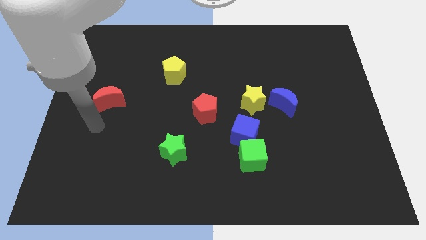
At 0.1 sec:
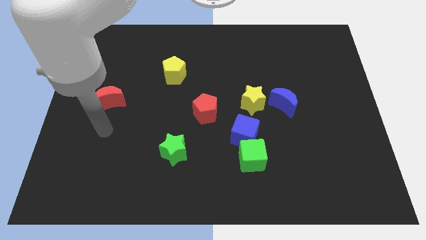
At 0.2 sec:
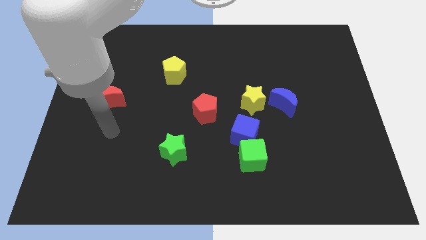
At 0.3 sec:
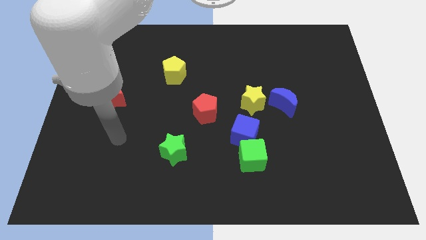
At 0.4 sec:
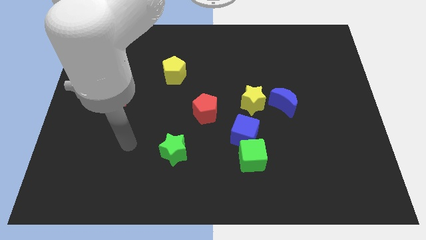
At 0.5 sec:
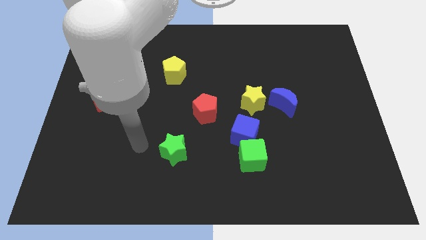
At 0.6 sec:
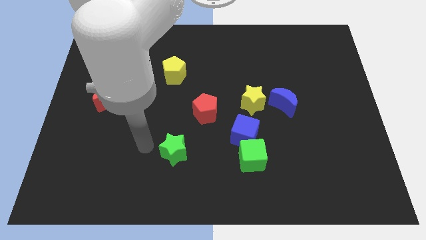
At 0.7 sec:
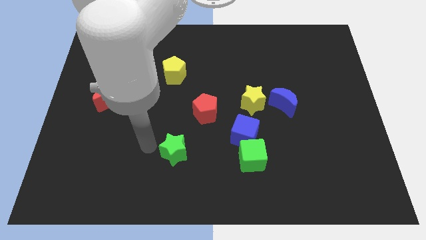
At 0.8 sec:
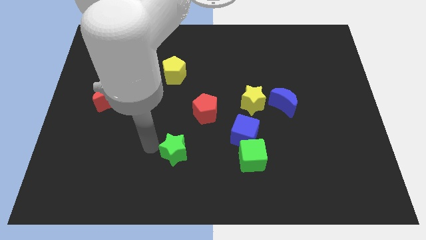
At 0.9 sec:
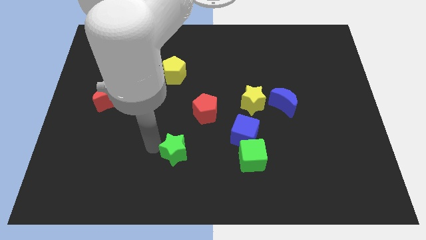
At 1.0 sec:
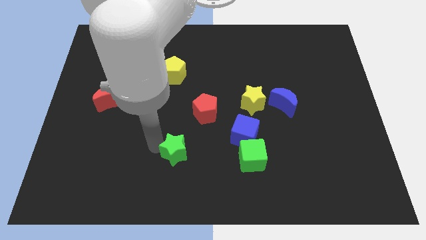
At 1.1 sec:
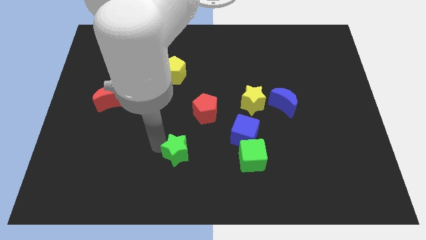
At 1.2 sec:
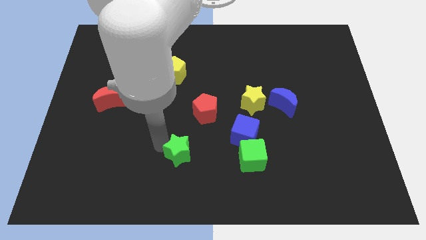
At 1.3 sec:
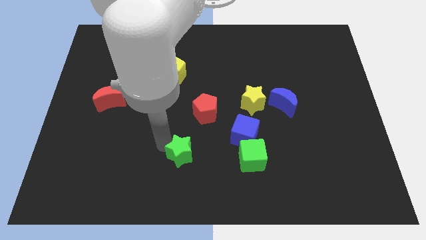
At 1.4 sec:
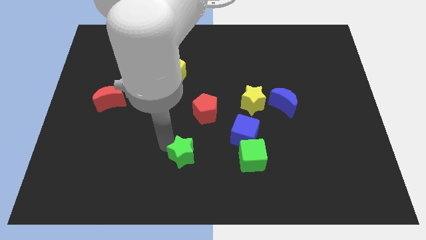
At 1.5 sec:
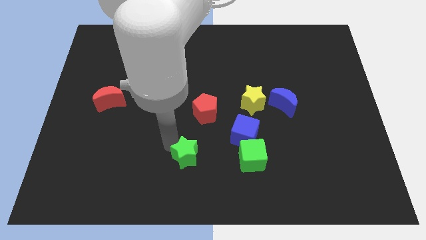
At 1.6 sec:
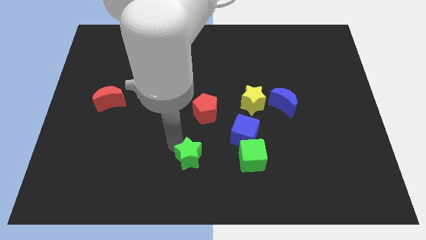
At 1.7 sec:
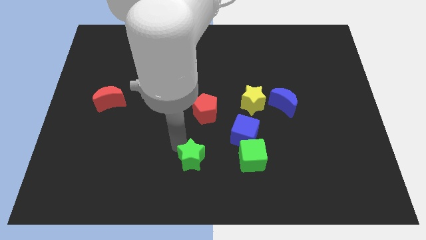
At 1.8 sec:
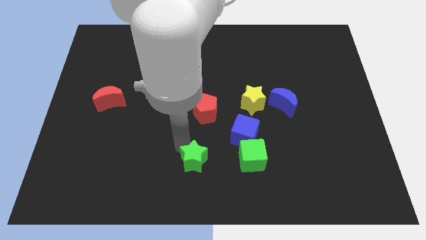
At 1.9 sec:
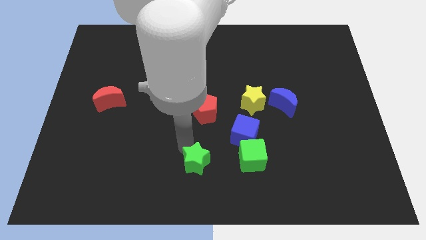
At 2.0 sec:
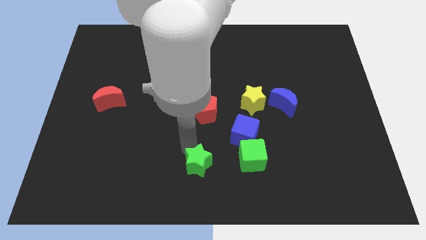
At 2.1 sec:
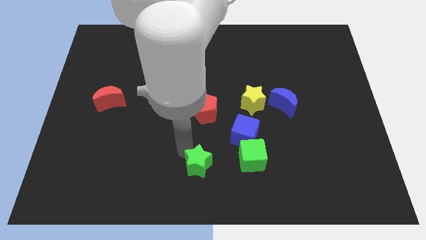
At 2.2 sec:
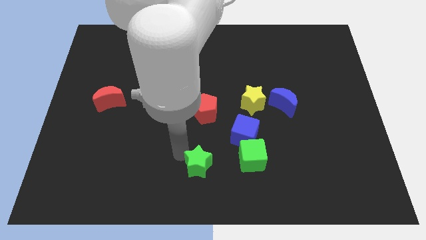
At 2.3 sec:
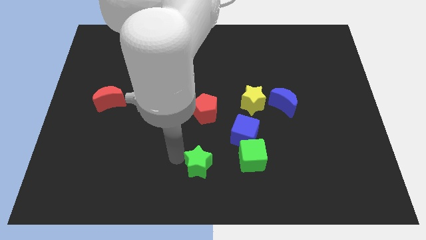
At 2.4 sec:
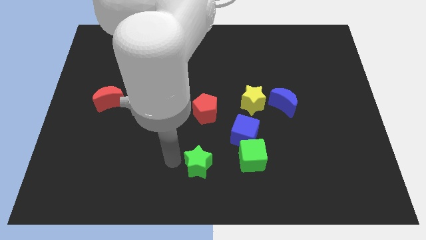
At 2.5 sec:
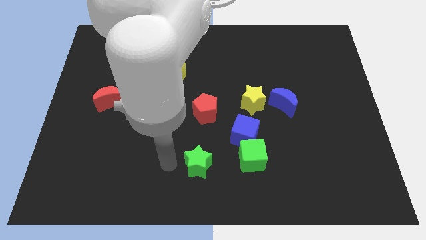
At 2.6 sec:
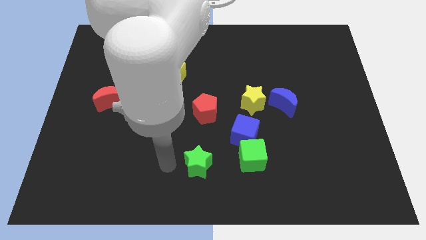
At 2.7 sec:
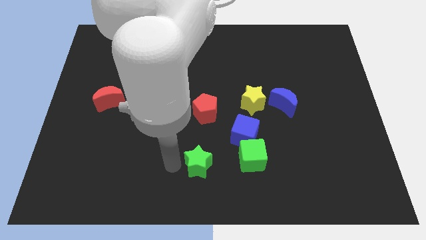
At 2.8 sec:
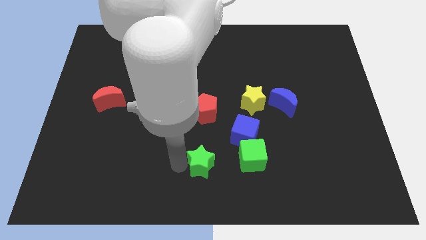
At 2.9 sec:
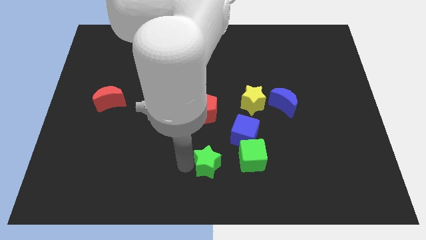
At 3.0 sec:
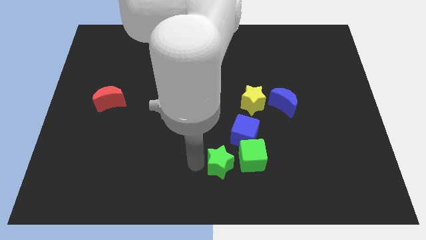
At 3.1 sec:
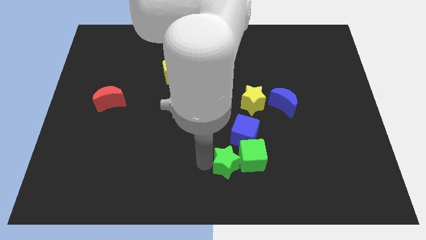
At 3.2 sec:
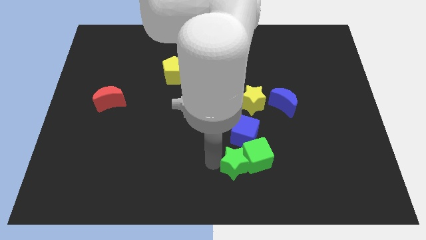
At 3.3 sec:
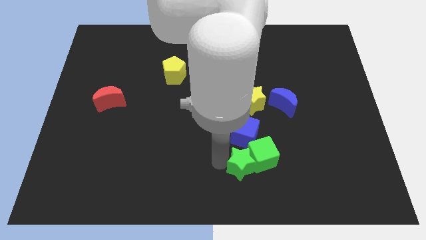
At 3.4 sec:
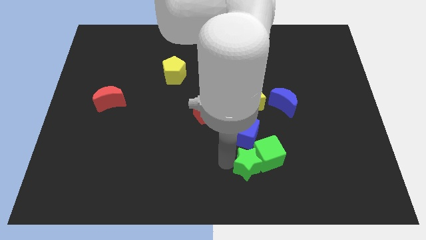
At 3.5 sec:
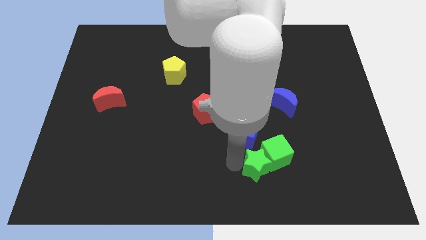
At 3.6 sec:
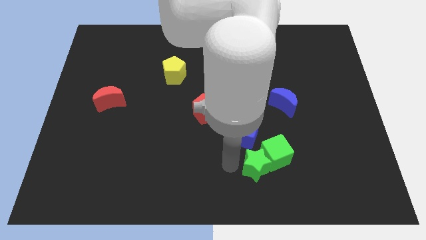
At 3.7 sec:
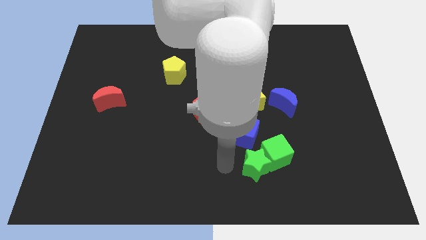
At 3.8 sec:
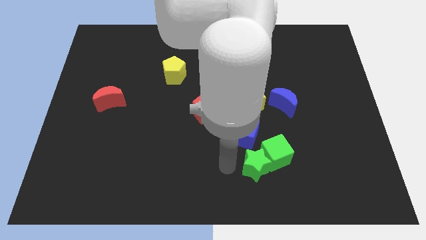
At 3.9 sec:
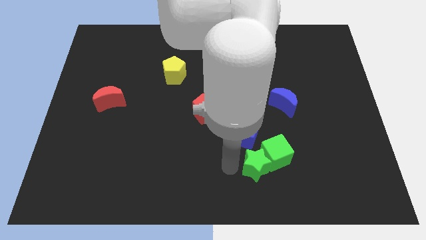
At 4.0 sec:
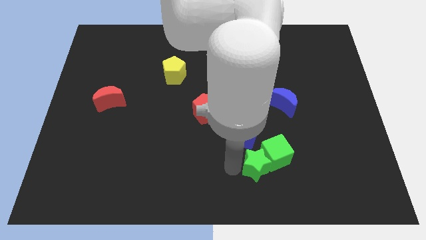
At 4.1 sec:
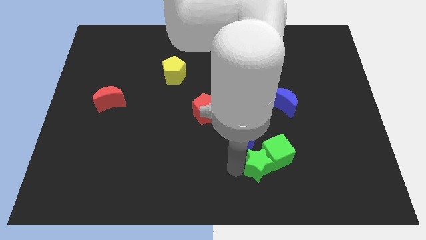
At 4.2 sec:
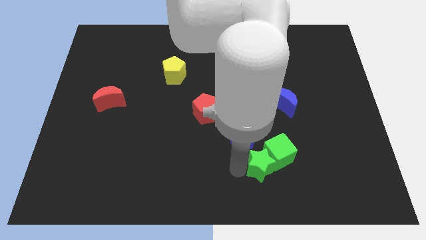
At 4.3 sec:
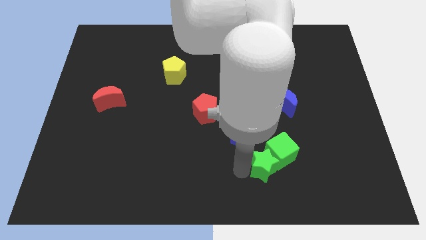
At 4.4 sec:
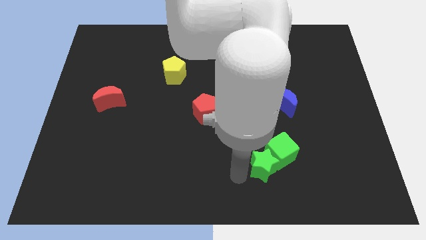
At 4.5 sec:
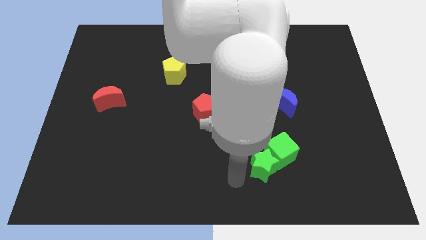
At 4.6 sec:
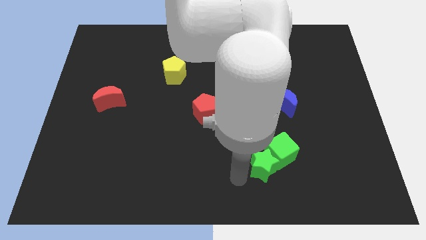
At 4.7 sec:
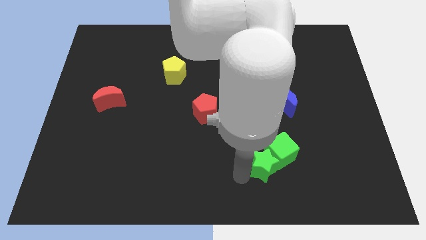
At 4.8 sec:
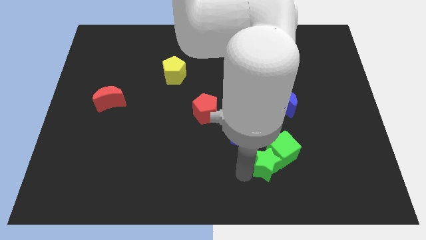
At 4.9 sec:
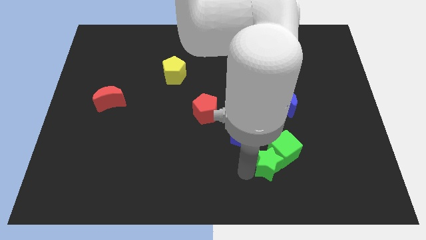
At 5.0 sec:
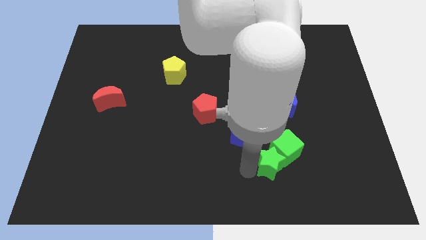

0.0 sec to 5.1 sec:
slide the green star to the right

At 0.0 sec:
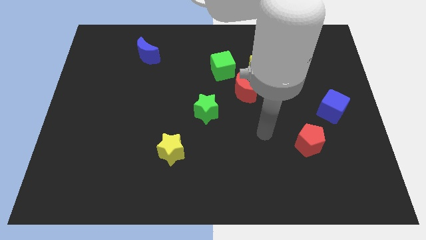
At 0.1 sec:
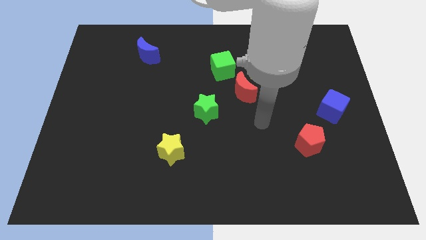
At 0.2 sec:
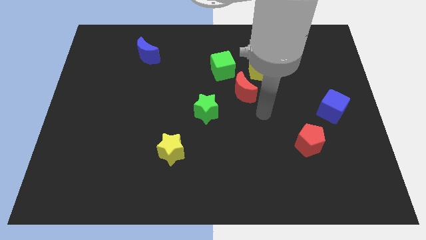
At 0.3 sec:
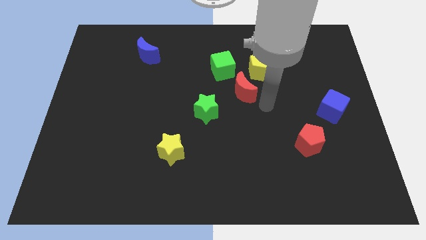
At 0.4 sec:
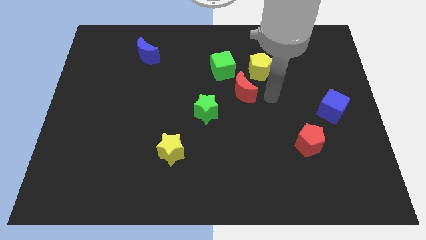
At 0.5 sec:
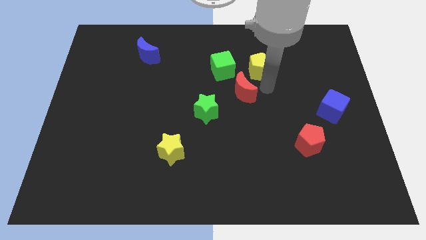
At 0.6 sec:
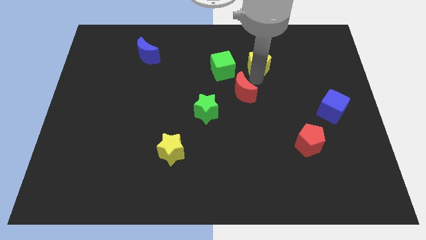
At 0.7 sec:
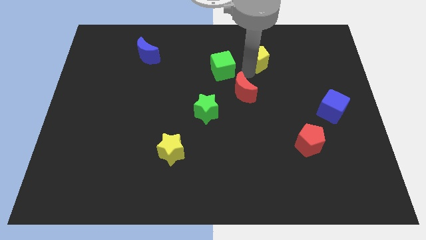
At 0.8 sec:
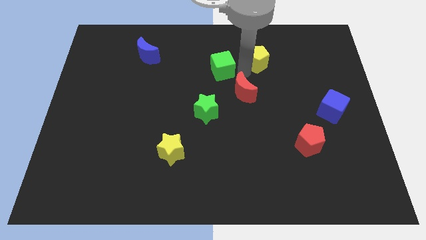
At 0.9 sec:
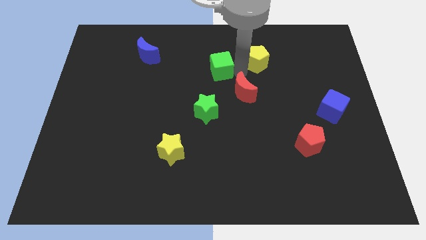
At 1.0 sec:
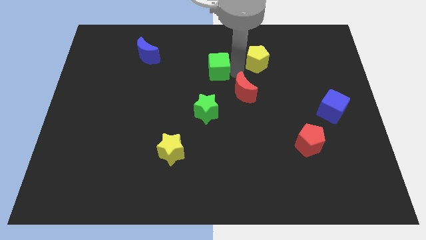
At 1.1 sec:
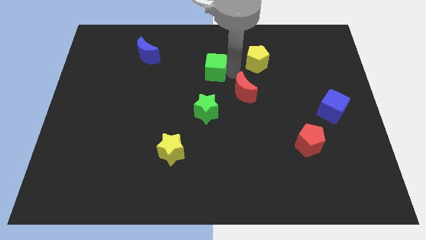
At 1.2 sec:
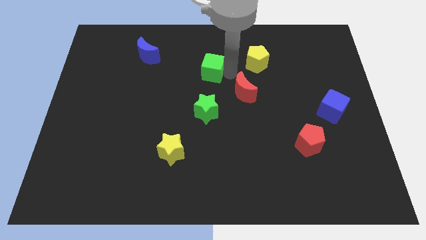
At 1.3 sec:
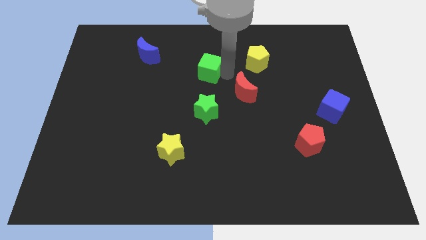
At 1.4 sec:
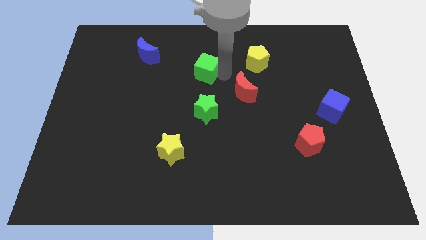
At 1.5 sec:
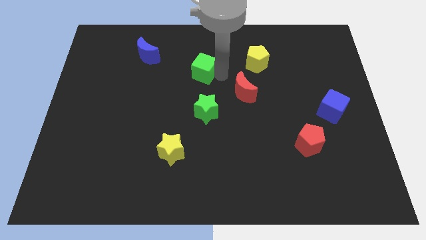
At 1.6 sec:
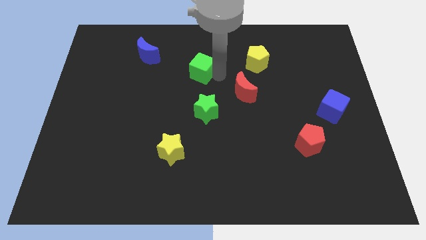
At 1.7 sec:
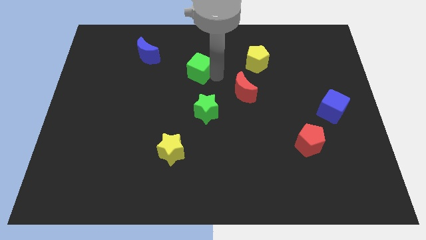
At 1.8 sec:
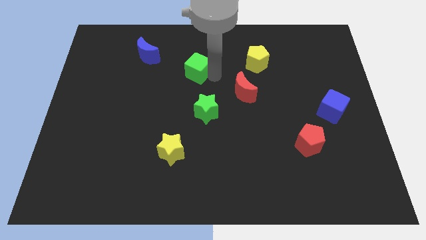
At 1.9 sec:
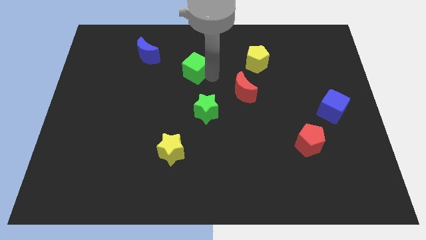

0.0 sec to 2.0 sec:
move the green cube somewhat to the left

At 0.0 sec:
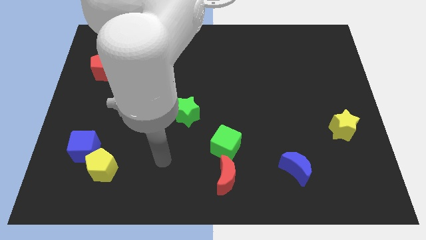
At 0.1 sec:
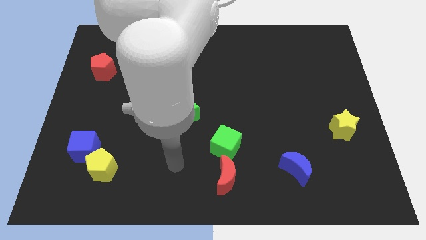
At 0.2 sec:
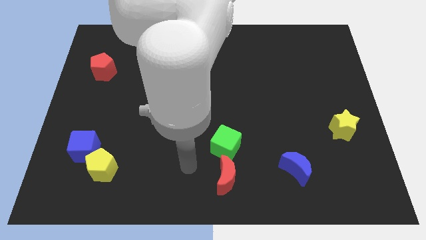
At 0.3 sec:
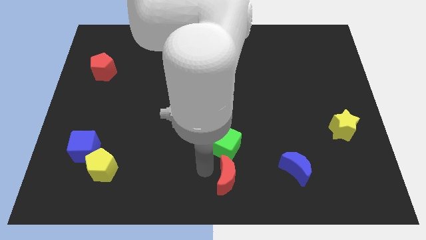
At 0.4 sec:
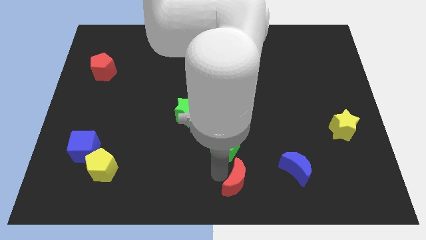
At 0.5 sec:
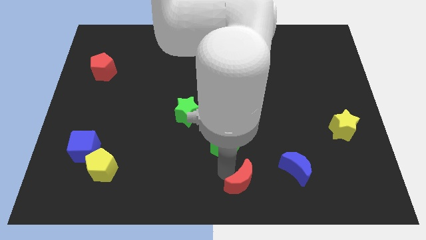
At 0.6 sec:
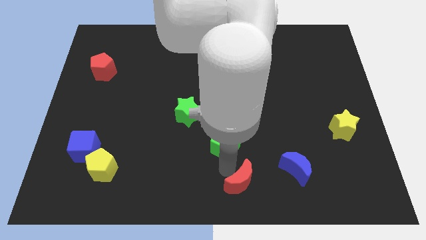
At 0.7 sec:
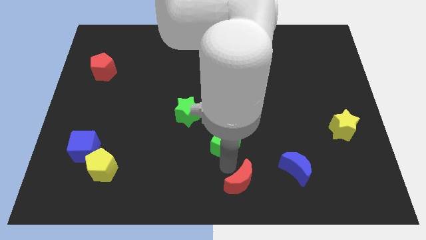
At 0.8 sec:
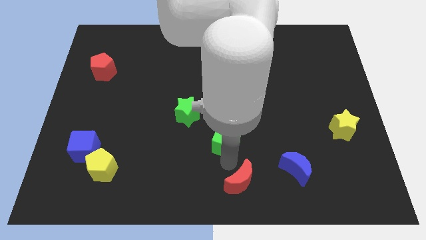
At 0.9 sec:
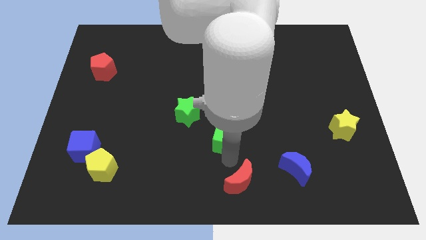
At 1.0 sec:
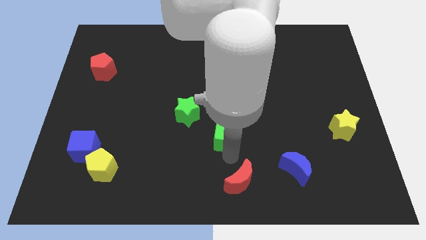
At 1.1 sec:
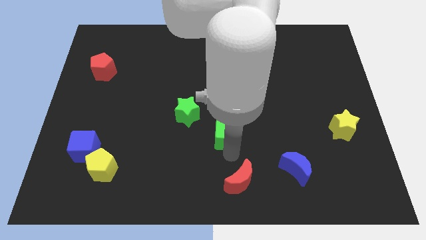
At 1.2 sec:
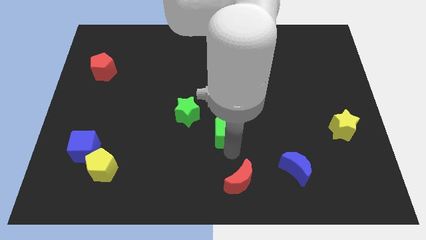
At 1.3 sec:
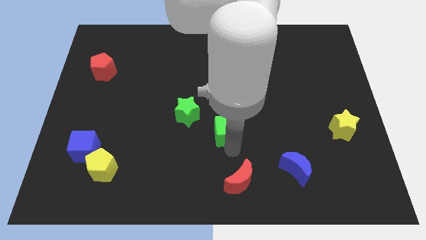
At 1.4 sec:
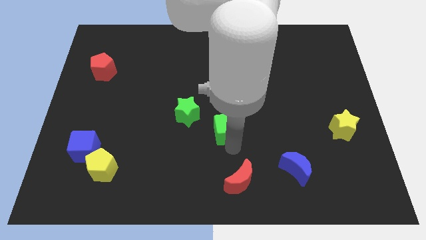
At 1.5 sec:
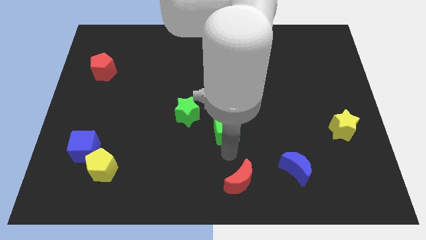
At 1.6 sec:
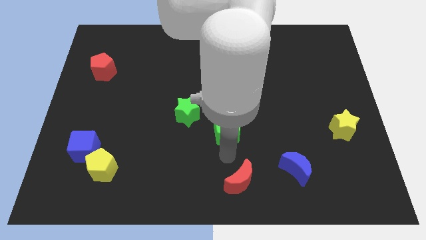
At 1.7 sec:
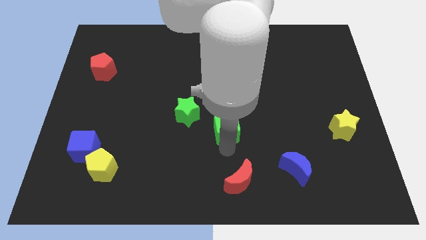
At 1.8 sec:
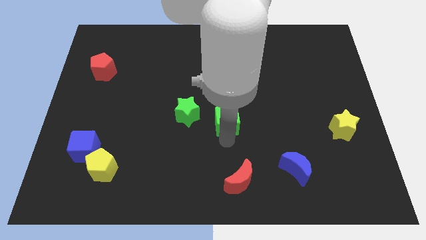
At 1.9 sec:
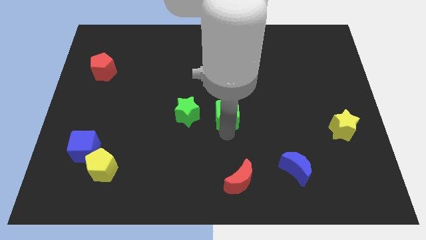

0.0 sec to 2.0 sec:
slightly move the green cube upwards
